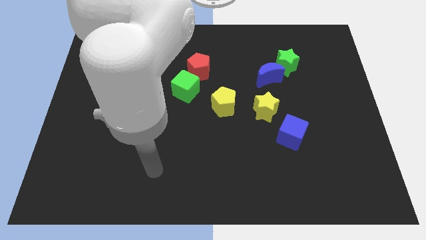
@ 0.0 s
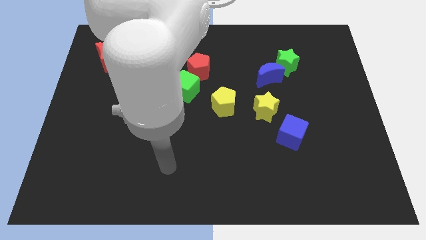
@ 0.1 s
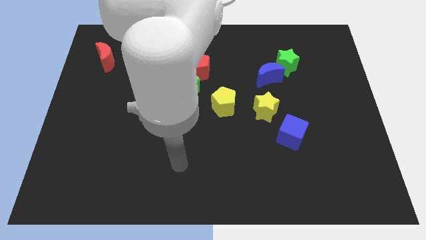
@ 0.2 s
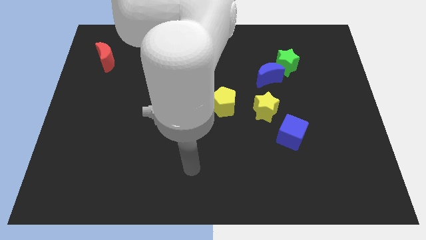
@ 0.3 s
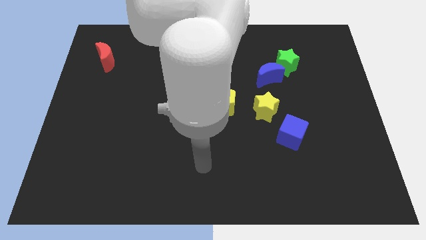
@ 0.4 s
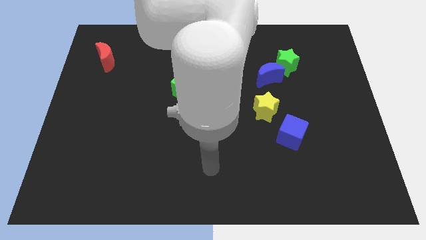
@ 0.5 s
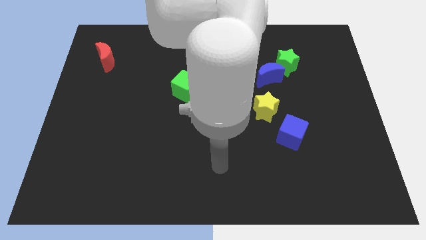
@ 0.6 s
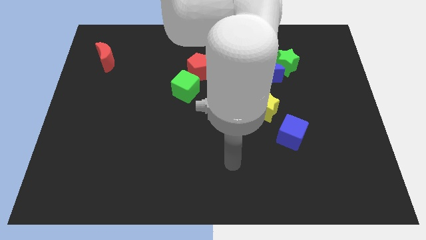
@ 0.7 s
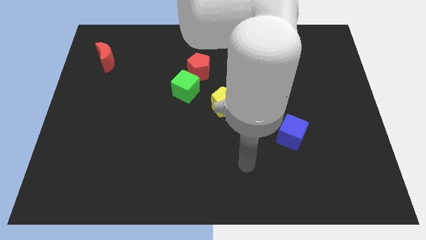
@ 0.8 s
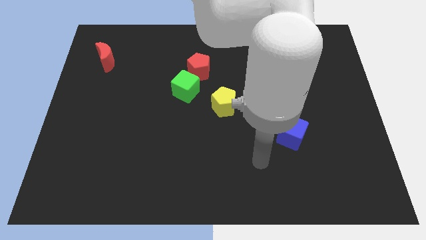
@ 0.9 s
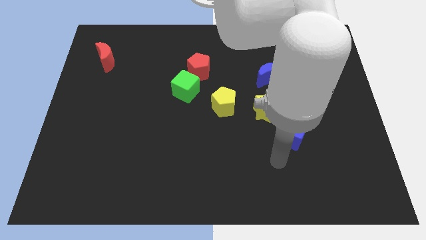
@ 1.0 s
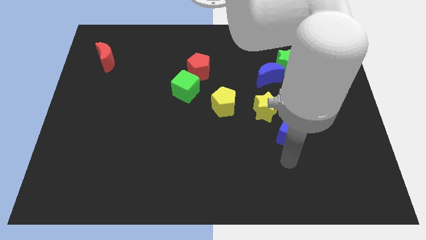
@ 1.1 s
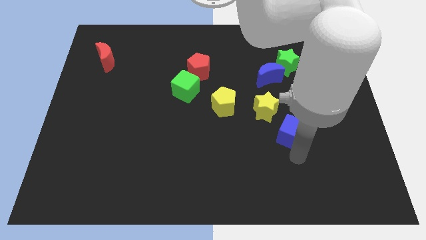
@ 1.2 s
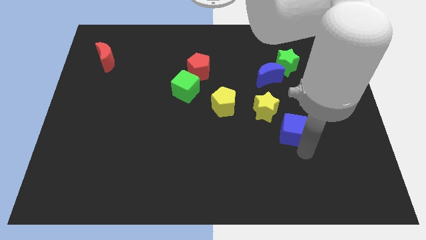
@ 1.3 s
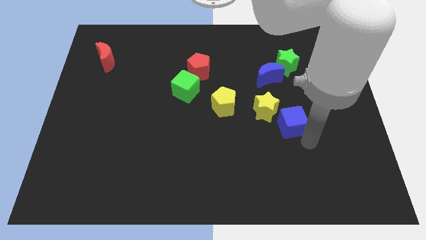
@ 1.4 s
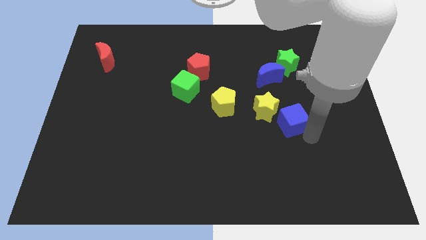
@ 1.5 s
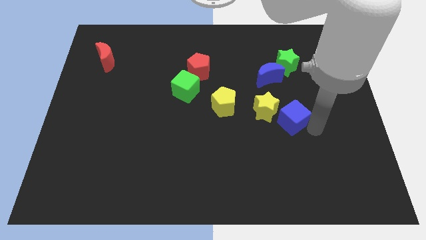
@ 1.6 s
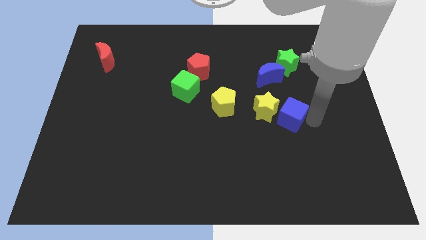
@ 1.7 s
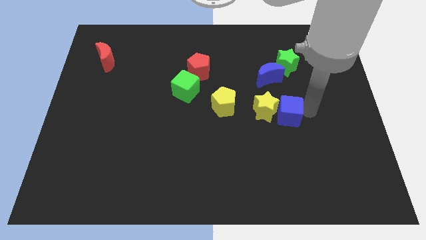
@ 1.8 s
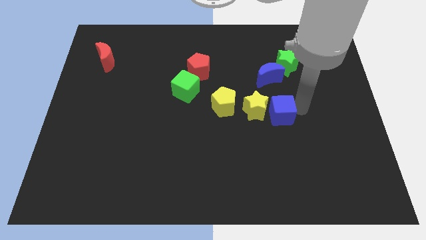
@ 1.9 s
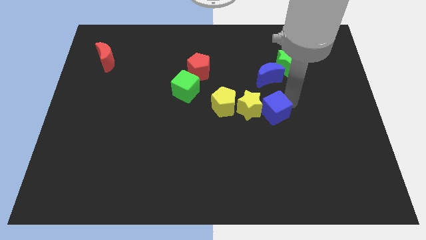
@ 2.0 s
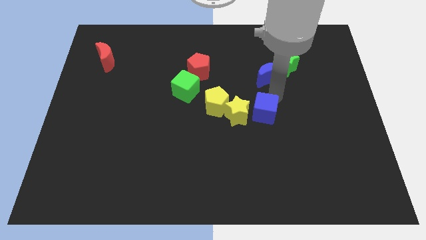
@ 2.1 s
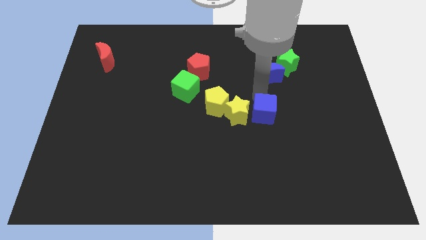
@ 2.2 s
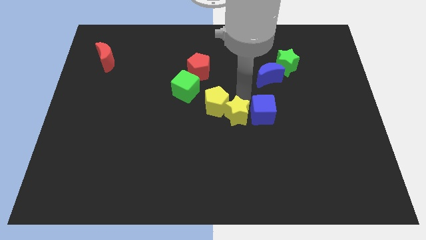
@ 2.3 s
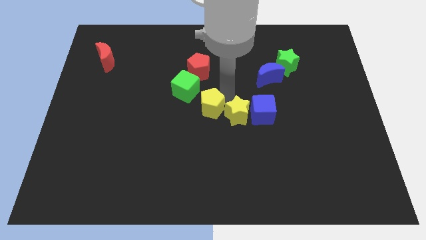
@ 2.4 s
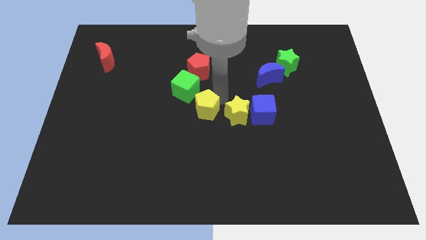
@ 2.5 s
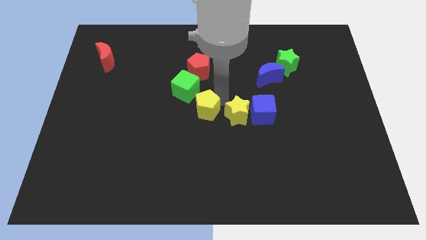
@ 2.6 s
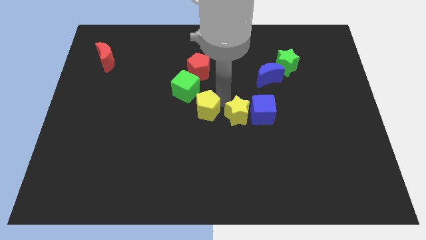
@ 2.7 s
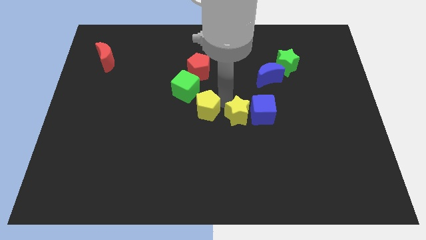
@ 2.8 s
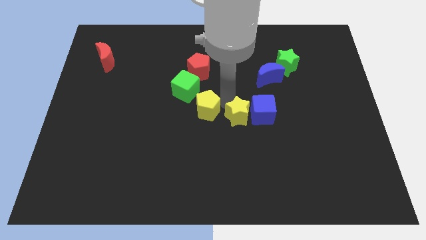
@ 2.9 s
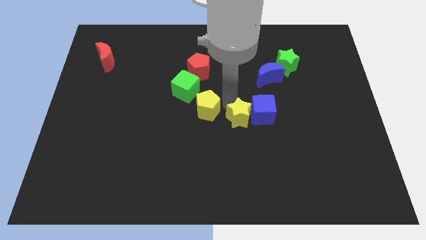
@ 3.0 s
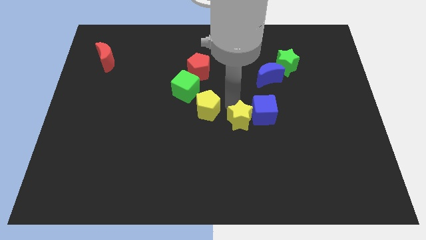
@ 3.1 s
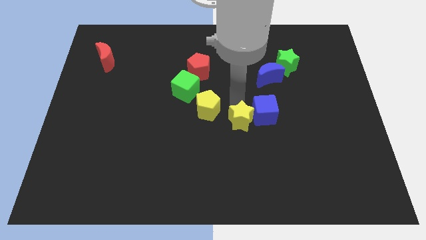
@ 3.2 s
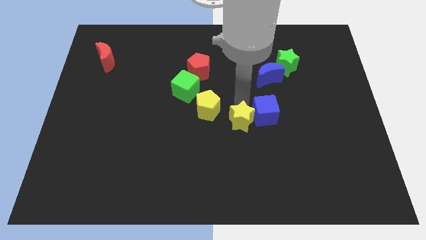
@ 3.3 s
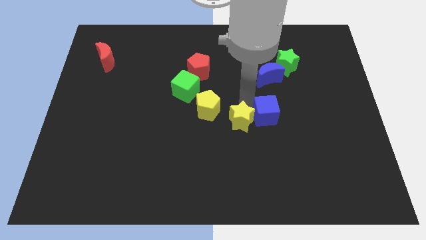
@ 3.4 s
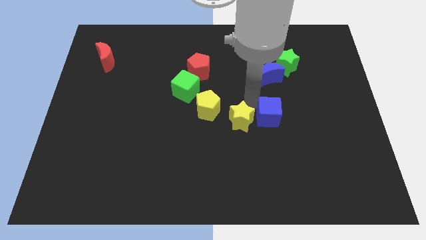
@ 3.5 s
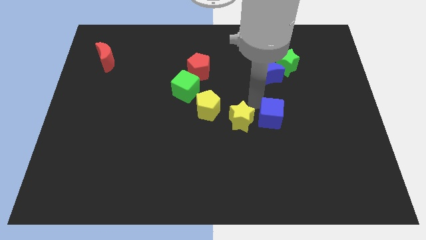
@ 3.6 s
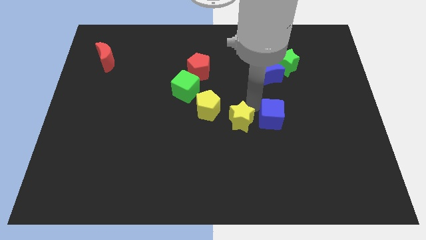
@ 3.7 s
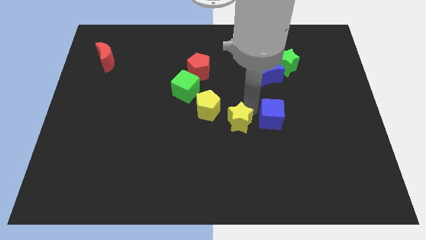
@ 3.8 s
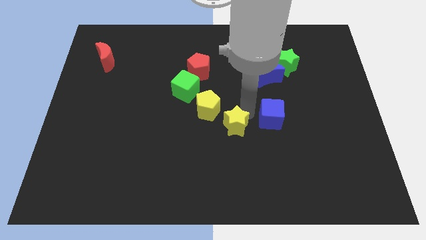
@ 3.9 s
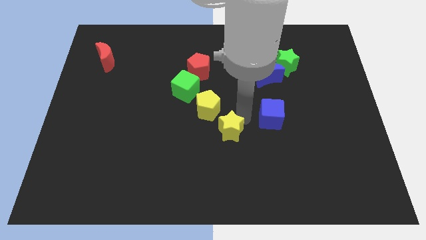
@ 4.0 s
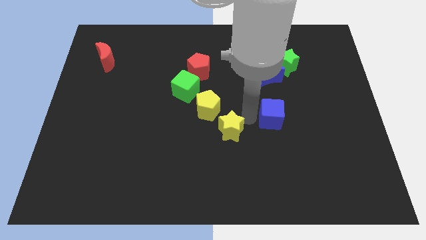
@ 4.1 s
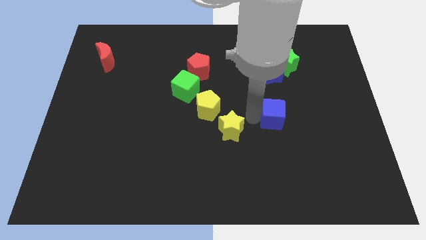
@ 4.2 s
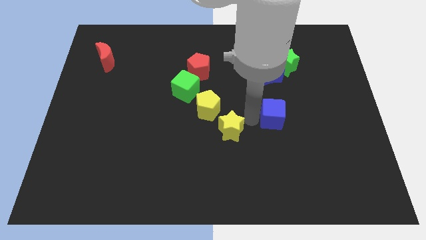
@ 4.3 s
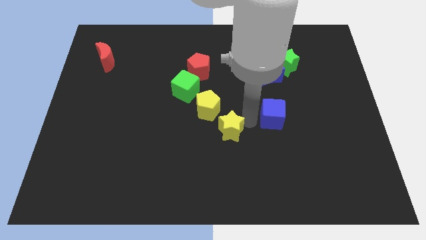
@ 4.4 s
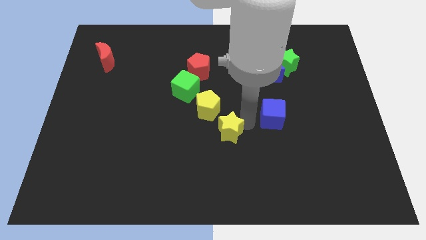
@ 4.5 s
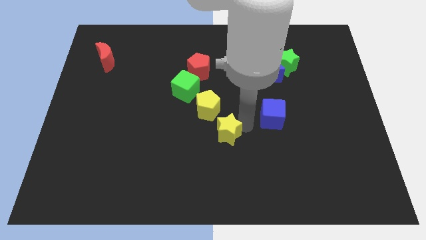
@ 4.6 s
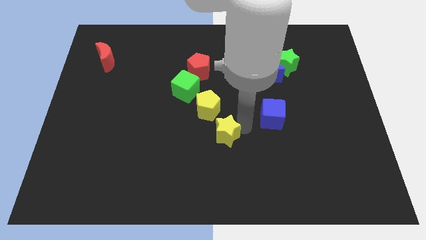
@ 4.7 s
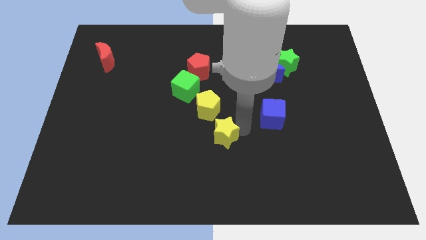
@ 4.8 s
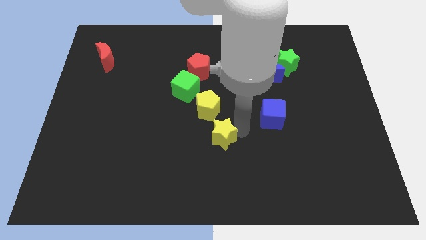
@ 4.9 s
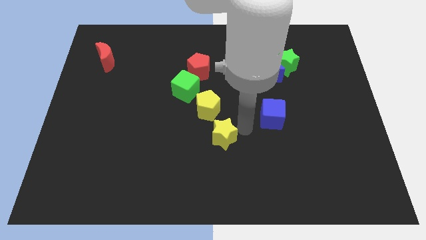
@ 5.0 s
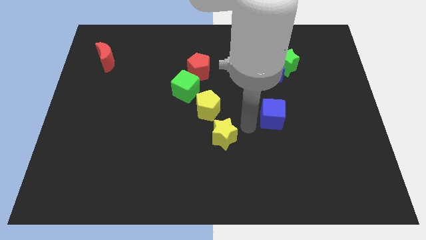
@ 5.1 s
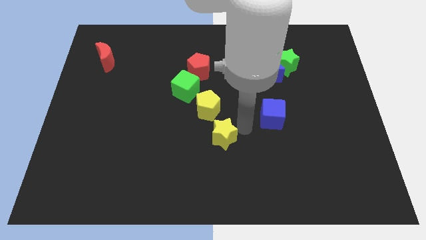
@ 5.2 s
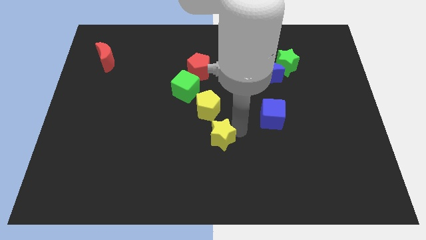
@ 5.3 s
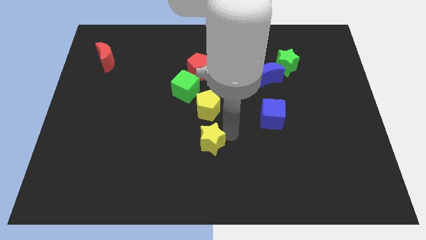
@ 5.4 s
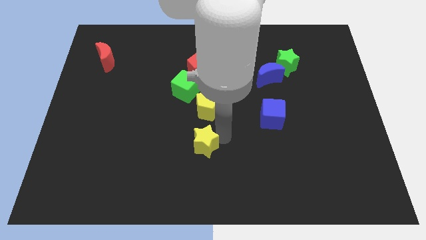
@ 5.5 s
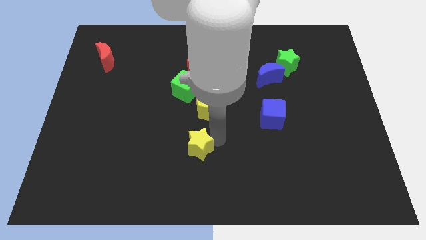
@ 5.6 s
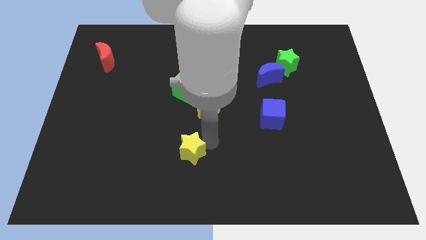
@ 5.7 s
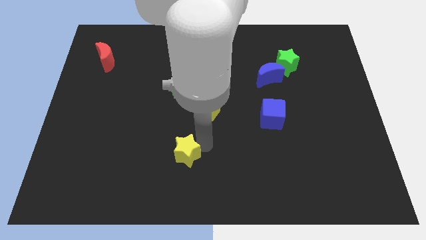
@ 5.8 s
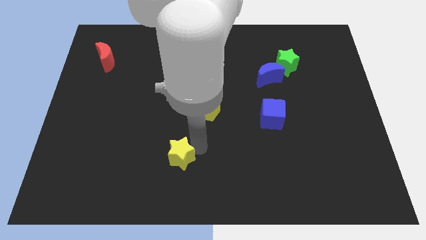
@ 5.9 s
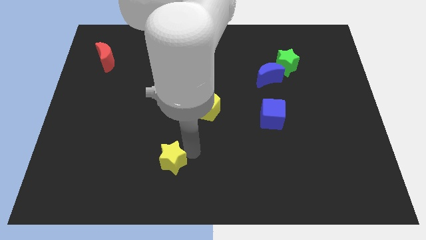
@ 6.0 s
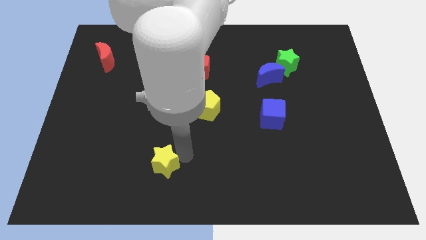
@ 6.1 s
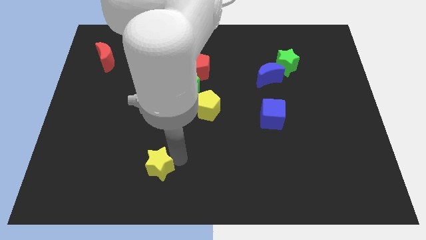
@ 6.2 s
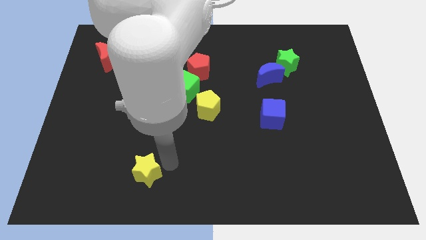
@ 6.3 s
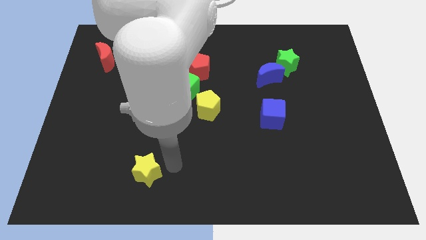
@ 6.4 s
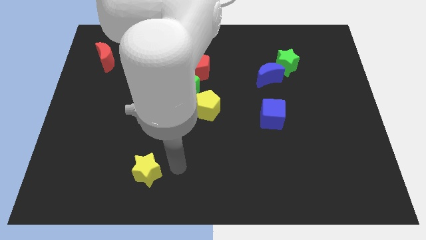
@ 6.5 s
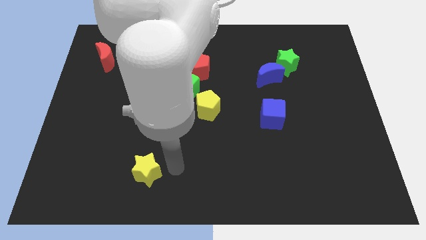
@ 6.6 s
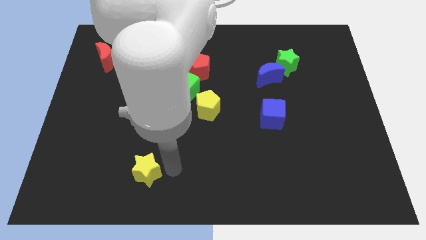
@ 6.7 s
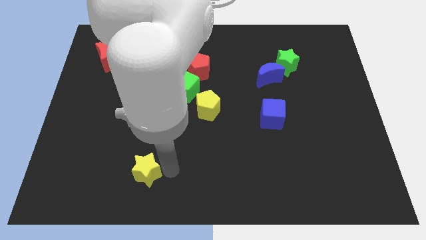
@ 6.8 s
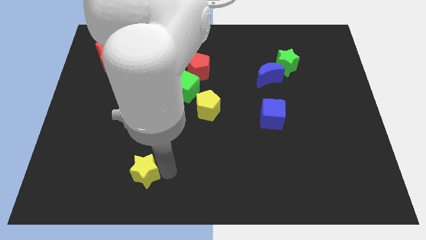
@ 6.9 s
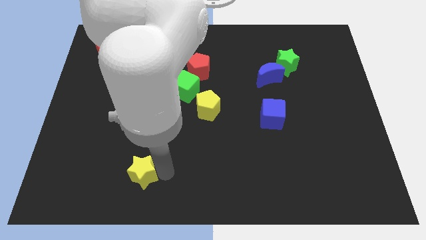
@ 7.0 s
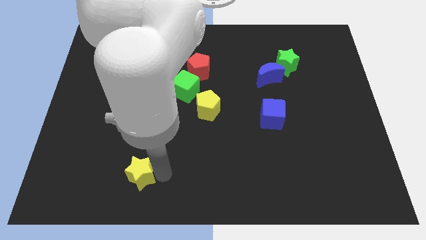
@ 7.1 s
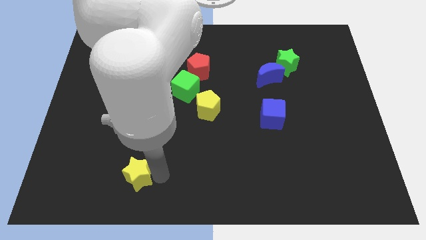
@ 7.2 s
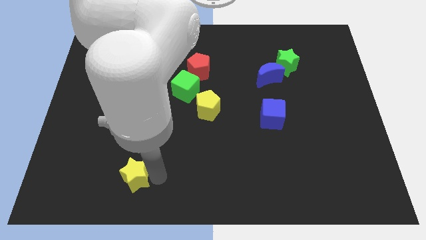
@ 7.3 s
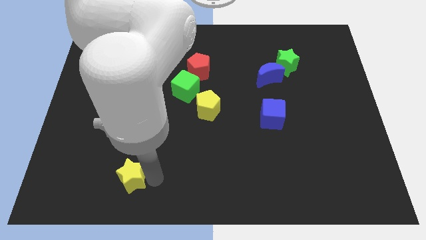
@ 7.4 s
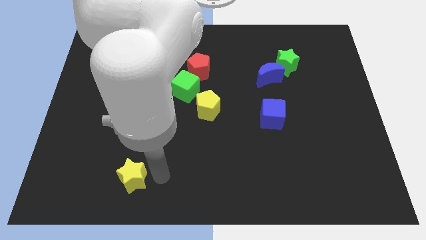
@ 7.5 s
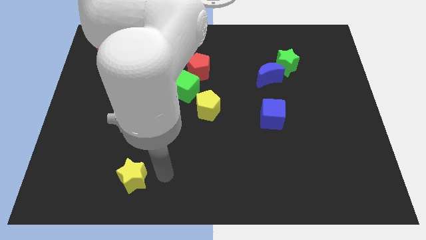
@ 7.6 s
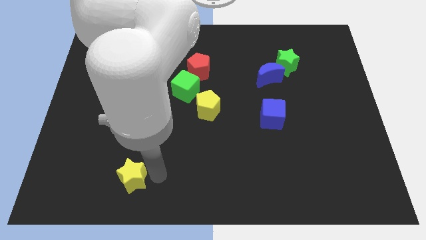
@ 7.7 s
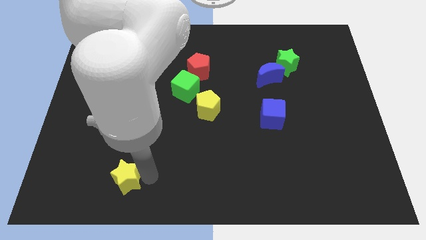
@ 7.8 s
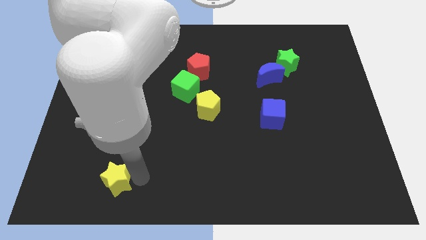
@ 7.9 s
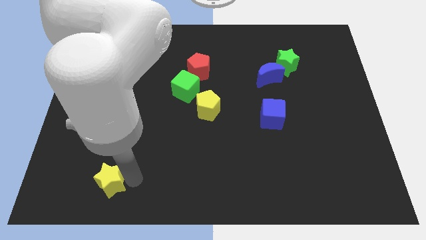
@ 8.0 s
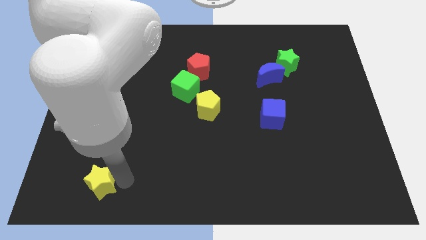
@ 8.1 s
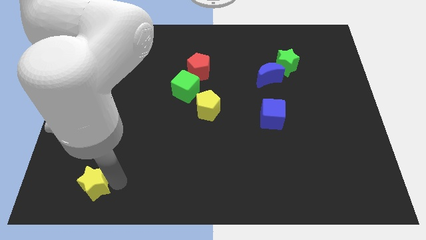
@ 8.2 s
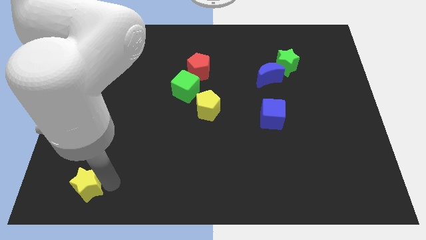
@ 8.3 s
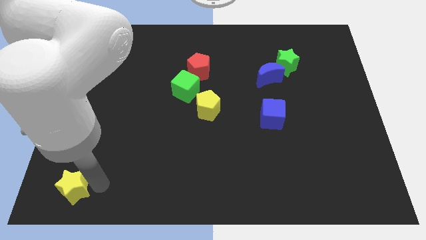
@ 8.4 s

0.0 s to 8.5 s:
move the yellow star to the bottom left of the board
